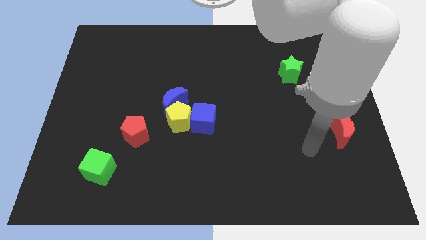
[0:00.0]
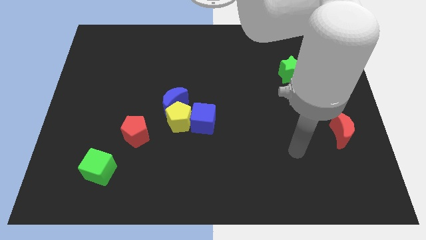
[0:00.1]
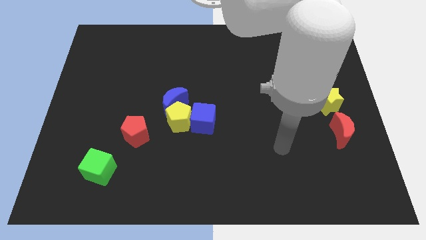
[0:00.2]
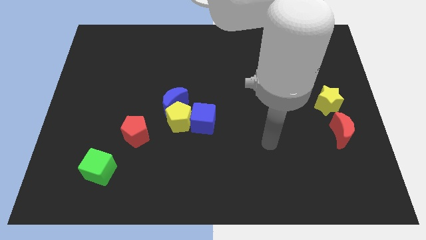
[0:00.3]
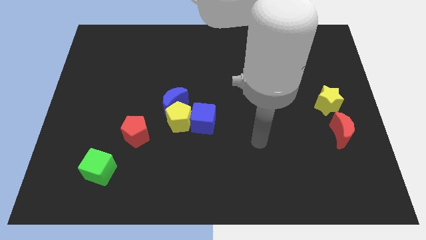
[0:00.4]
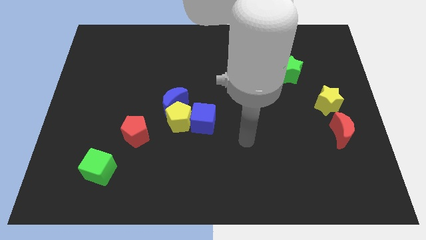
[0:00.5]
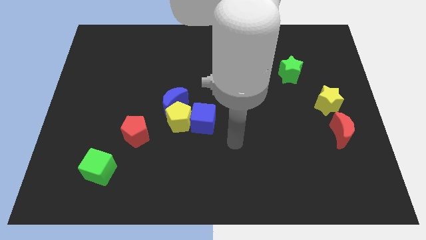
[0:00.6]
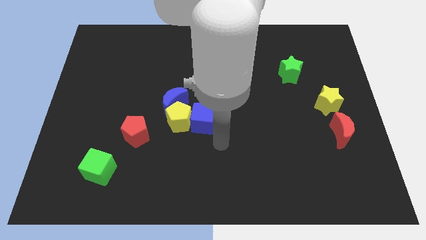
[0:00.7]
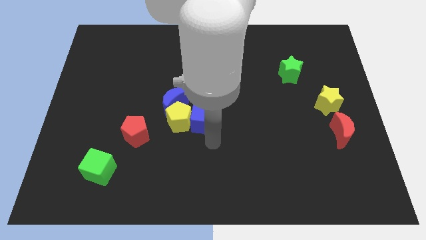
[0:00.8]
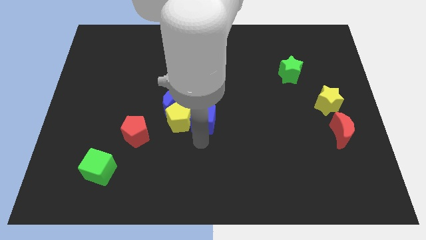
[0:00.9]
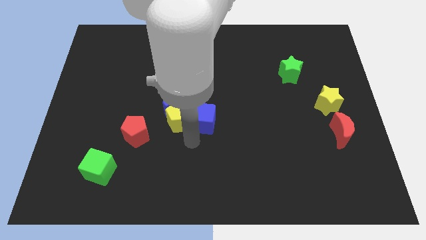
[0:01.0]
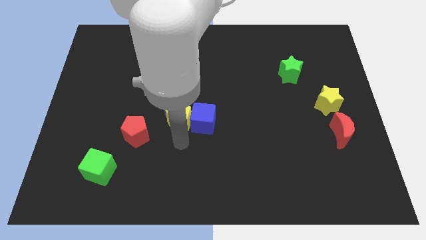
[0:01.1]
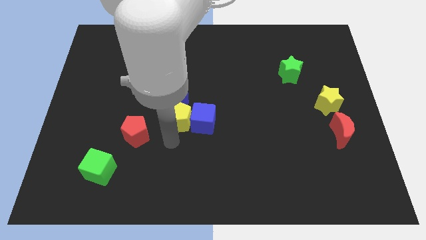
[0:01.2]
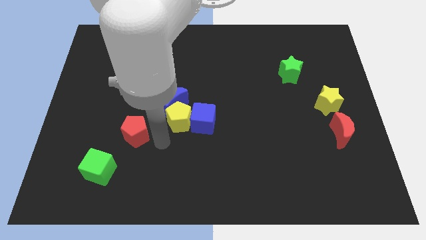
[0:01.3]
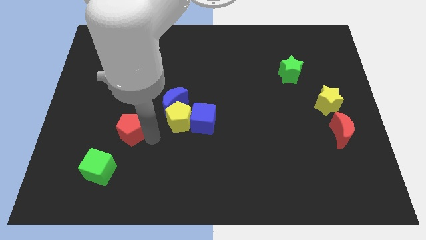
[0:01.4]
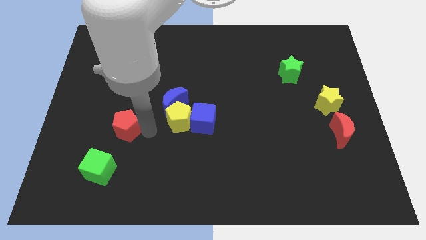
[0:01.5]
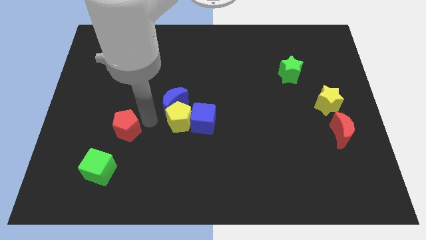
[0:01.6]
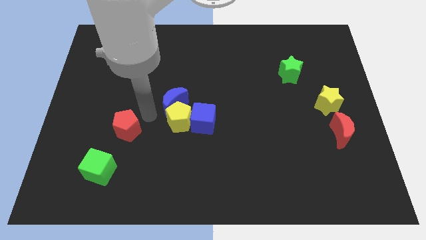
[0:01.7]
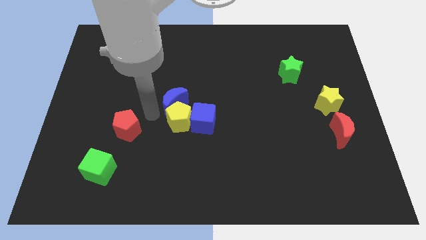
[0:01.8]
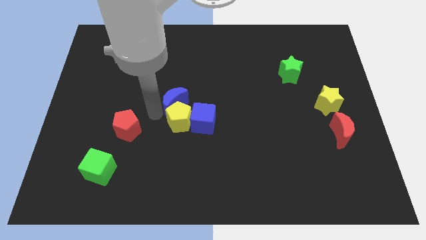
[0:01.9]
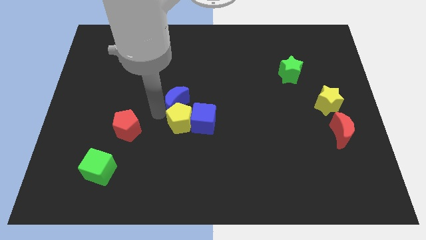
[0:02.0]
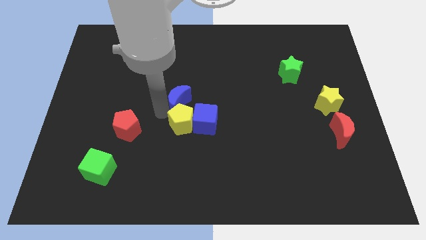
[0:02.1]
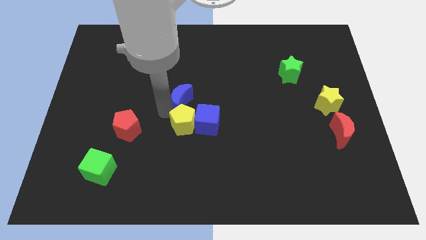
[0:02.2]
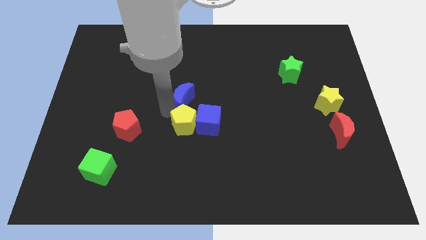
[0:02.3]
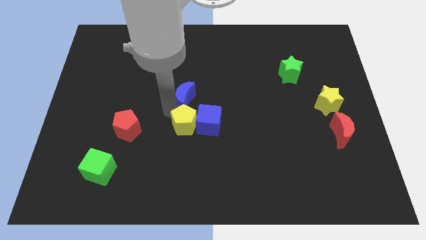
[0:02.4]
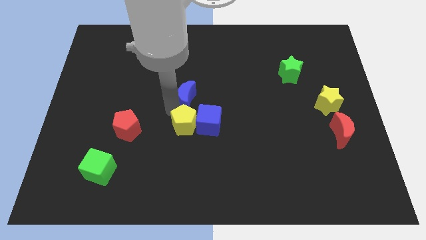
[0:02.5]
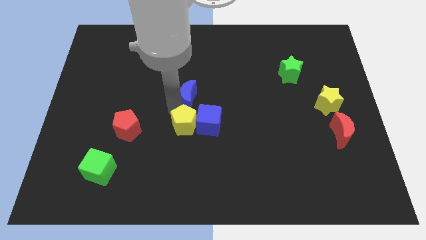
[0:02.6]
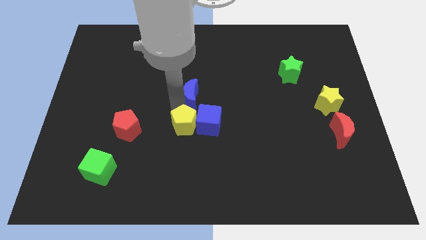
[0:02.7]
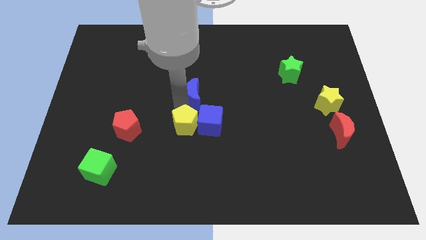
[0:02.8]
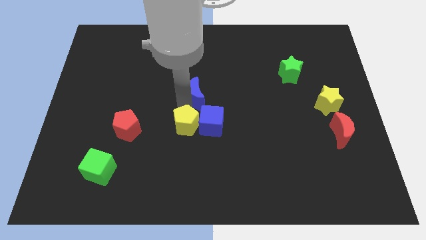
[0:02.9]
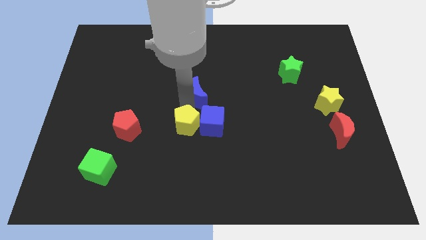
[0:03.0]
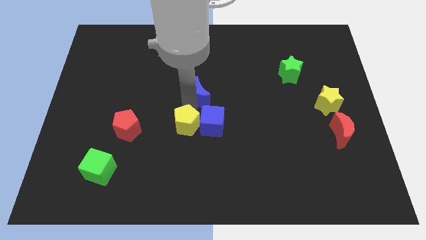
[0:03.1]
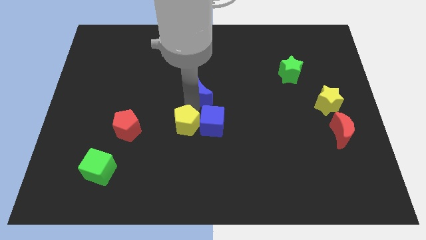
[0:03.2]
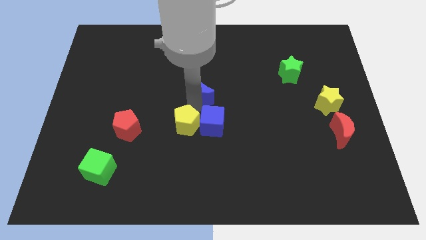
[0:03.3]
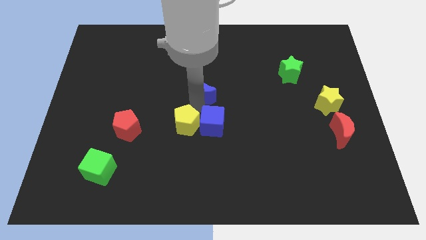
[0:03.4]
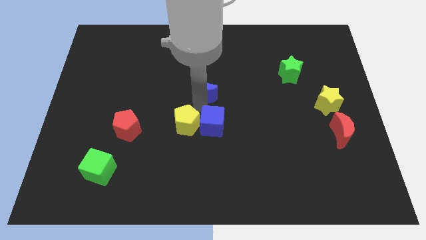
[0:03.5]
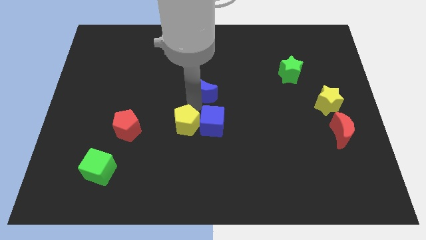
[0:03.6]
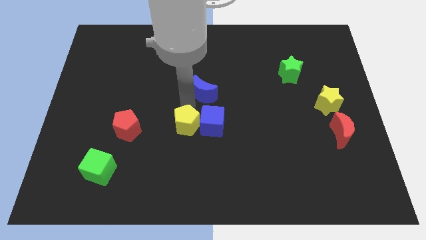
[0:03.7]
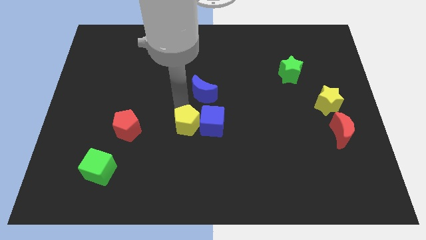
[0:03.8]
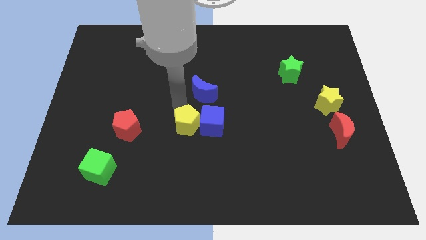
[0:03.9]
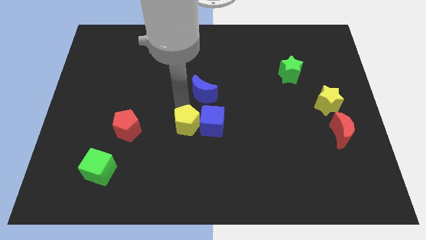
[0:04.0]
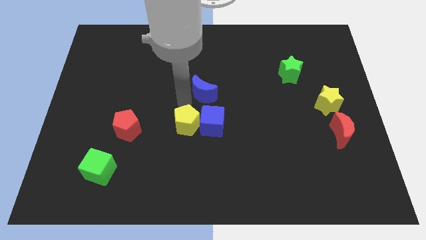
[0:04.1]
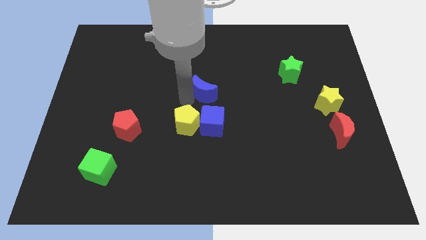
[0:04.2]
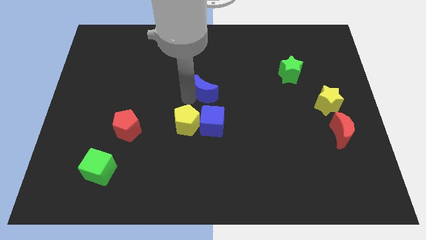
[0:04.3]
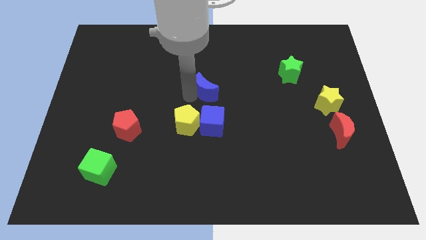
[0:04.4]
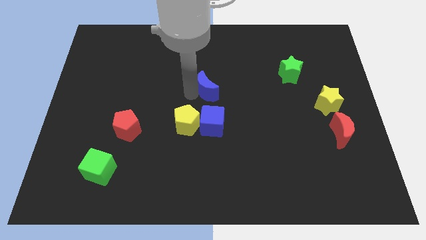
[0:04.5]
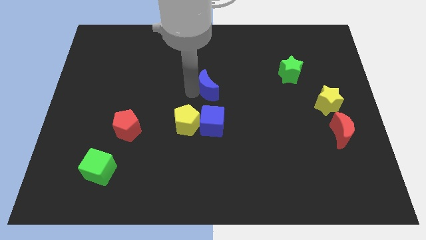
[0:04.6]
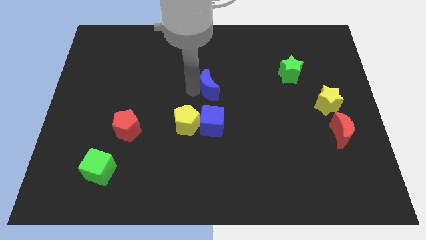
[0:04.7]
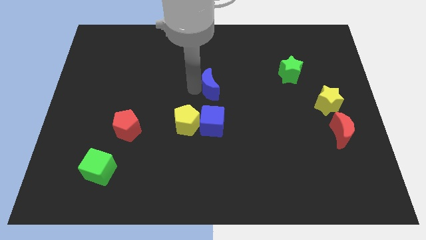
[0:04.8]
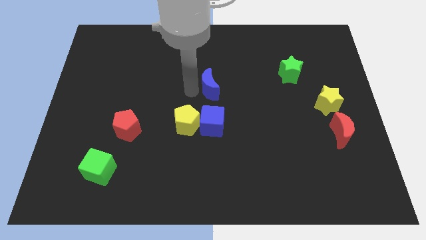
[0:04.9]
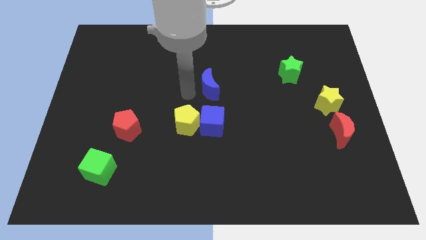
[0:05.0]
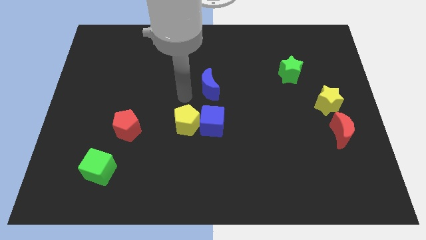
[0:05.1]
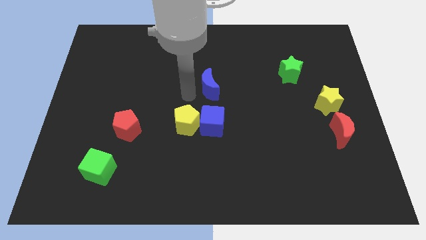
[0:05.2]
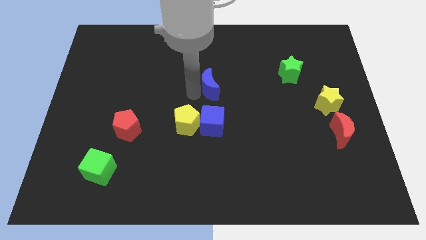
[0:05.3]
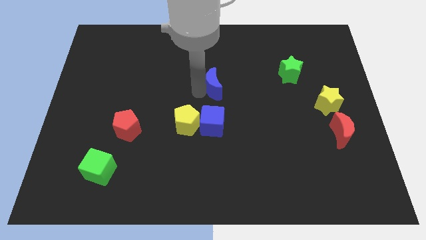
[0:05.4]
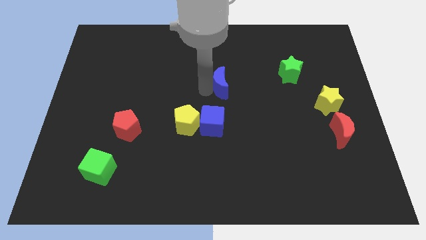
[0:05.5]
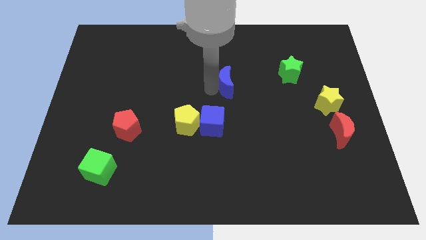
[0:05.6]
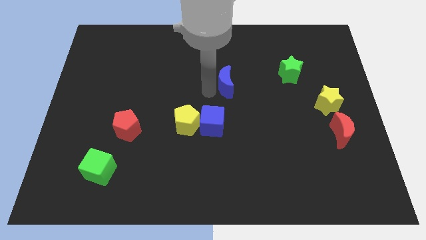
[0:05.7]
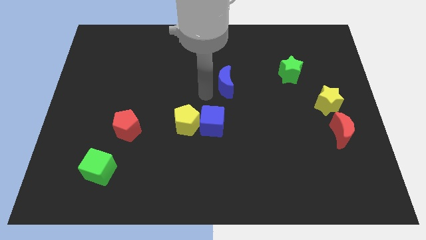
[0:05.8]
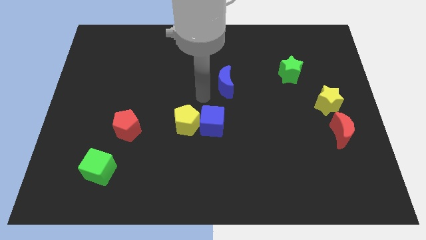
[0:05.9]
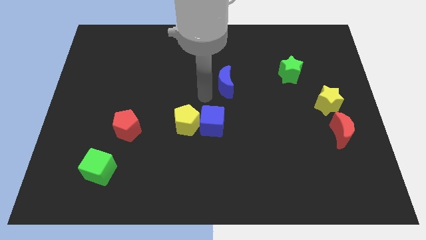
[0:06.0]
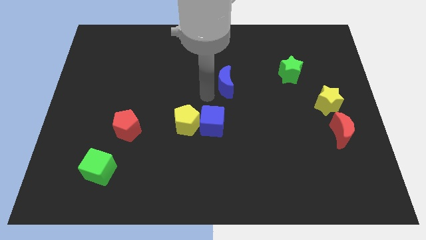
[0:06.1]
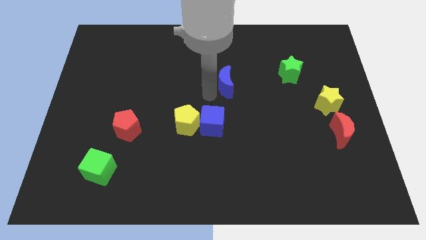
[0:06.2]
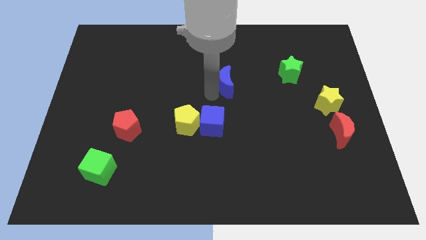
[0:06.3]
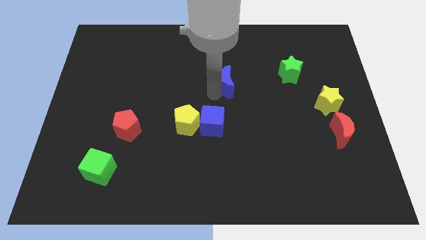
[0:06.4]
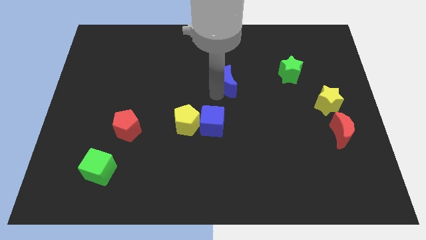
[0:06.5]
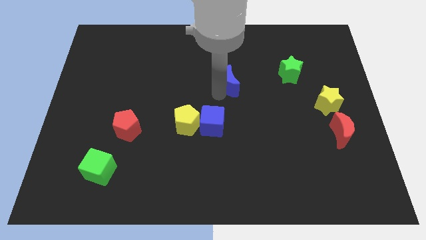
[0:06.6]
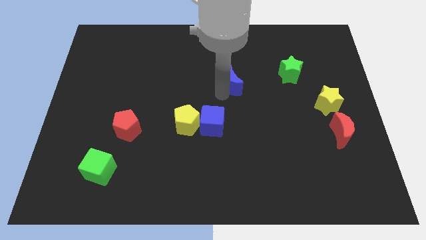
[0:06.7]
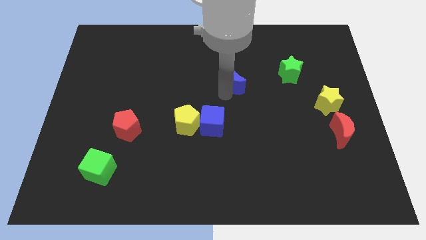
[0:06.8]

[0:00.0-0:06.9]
slide the blue moon left of the green star
